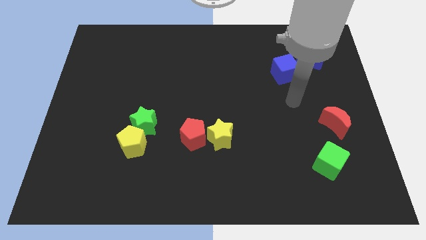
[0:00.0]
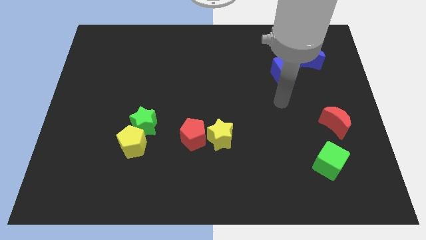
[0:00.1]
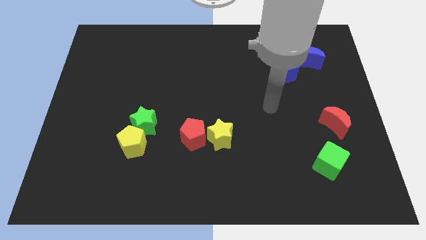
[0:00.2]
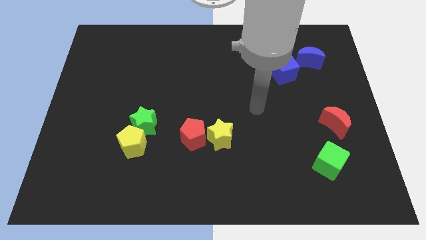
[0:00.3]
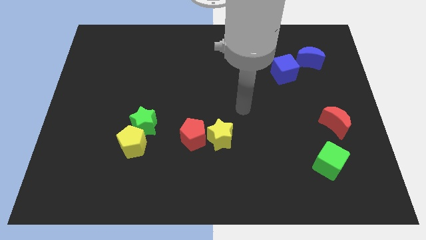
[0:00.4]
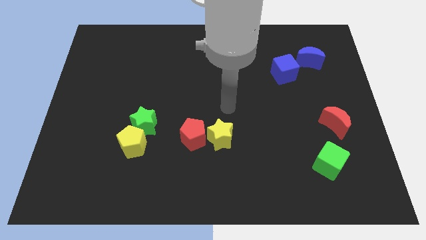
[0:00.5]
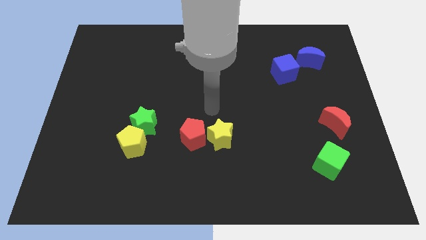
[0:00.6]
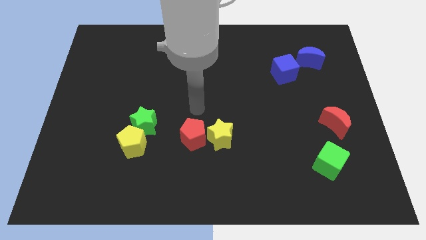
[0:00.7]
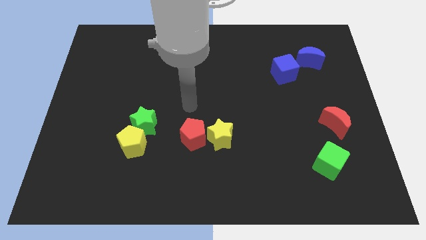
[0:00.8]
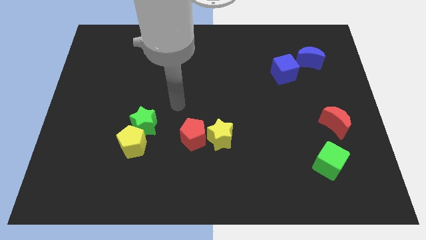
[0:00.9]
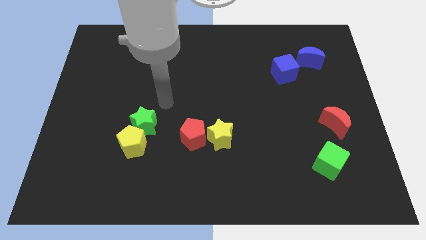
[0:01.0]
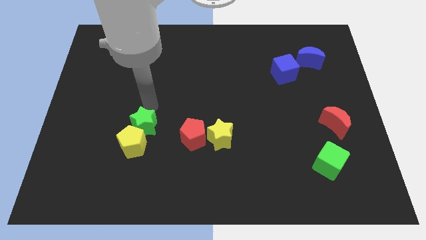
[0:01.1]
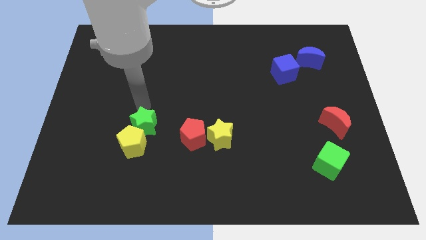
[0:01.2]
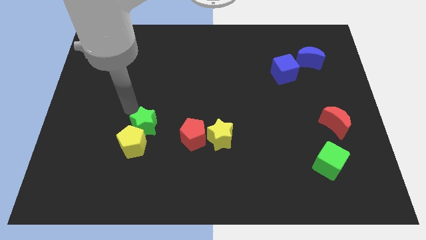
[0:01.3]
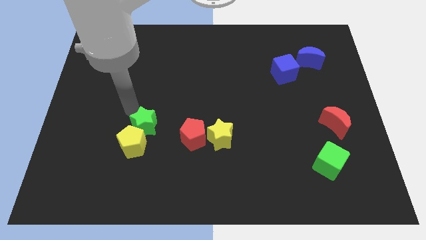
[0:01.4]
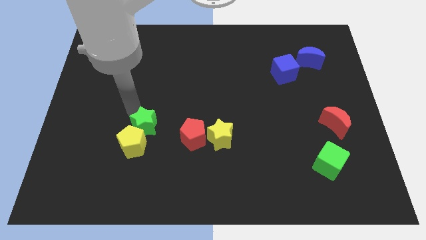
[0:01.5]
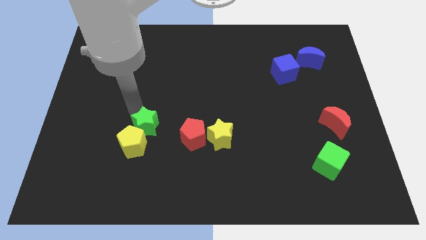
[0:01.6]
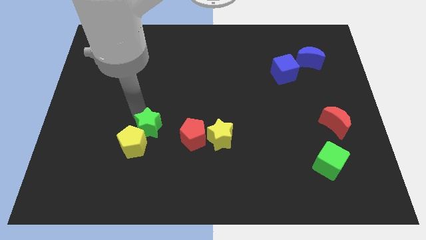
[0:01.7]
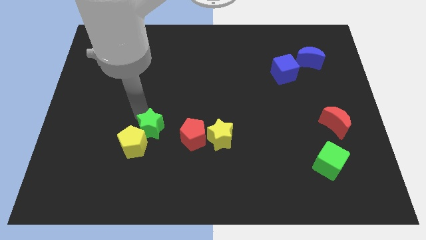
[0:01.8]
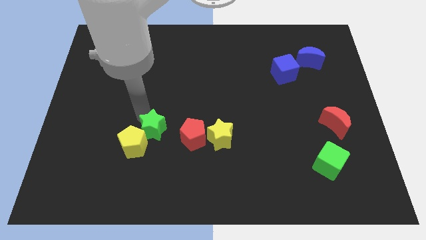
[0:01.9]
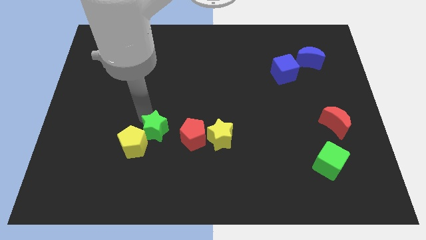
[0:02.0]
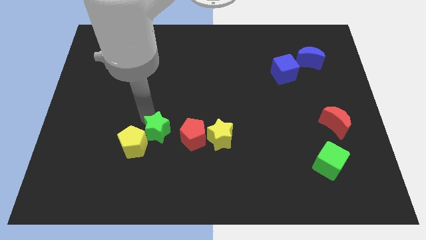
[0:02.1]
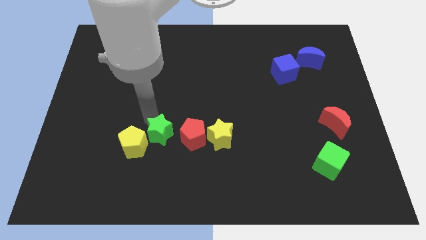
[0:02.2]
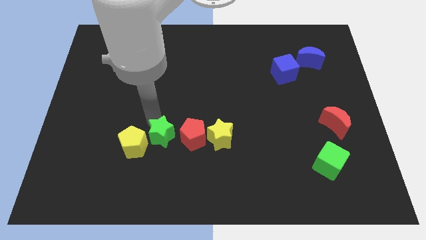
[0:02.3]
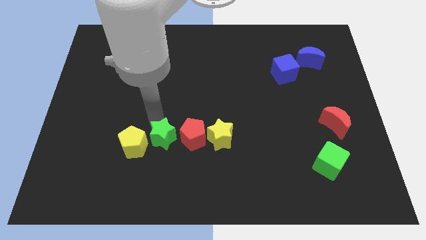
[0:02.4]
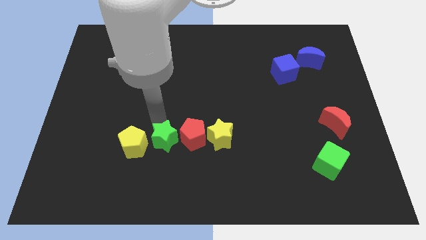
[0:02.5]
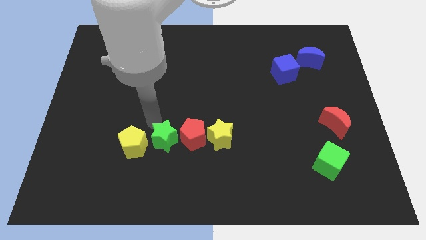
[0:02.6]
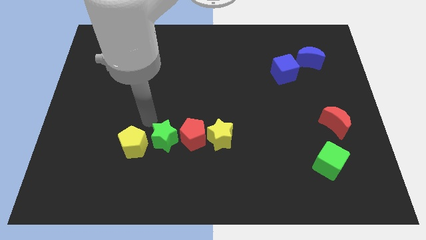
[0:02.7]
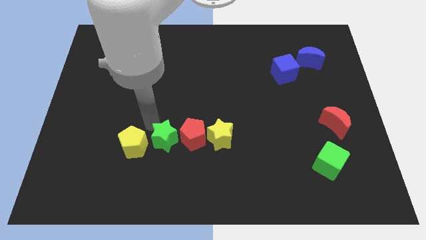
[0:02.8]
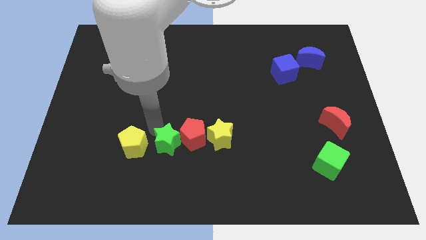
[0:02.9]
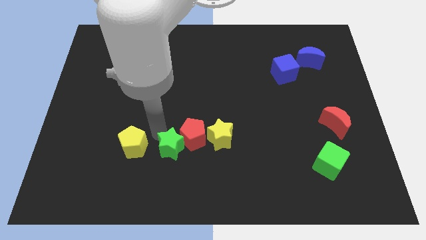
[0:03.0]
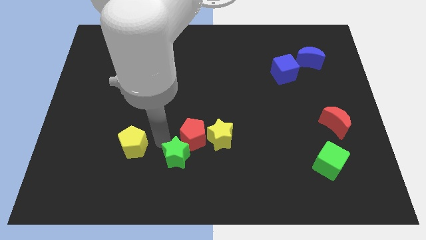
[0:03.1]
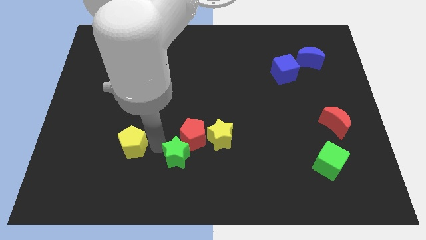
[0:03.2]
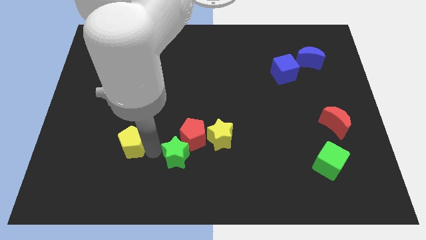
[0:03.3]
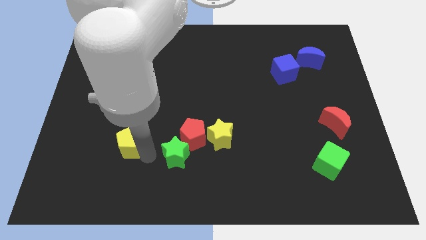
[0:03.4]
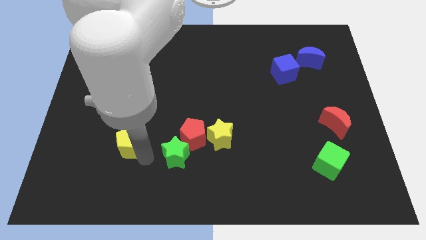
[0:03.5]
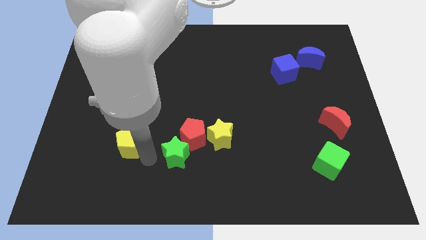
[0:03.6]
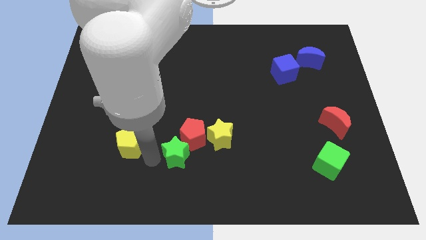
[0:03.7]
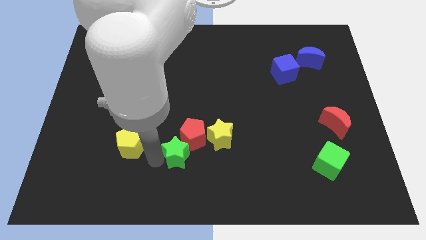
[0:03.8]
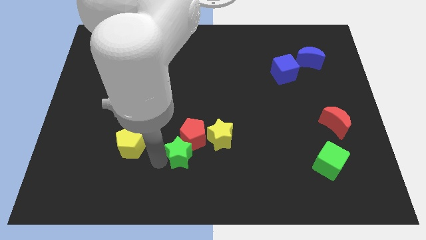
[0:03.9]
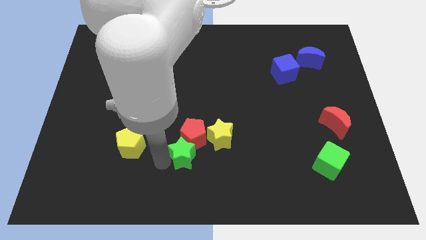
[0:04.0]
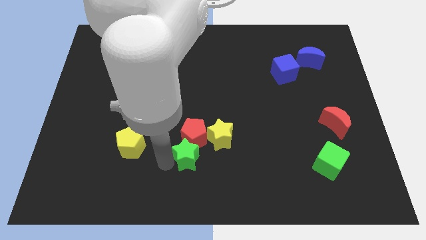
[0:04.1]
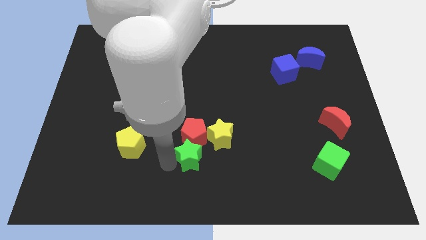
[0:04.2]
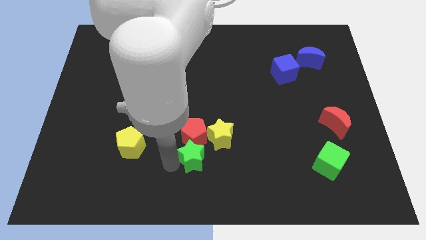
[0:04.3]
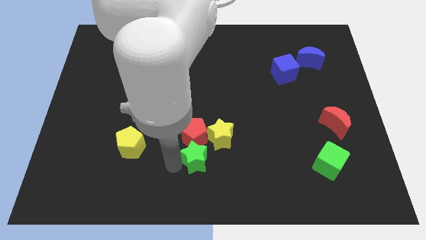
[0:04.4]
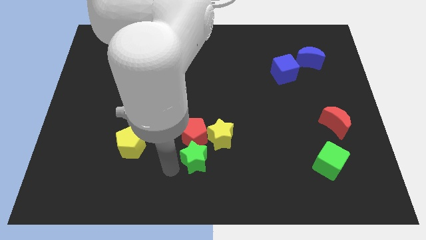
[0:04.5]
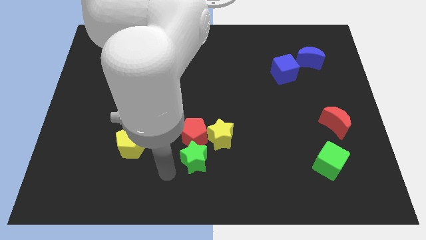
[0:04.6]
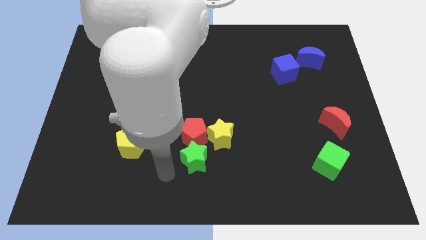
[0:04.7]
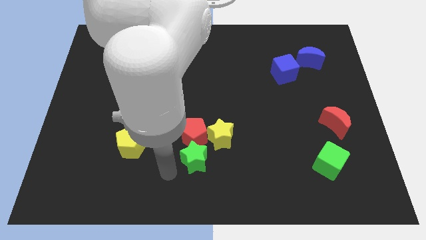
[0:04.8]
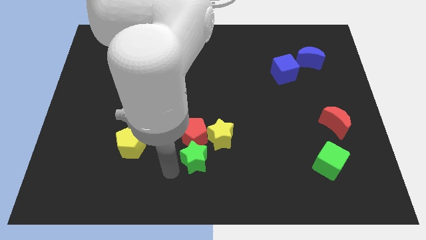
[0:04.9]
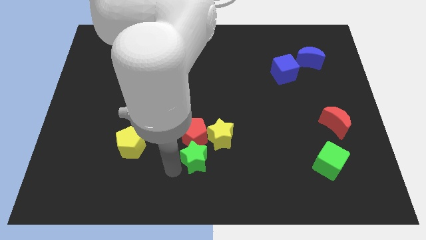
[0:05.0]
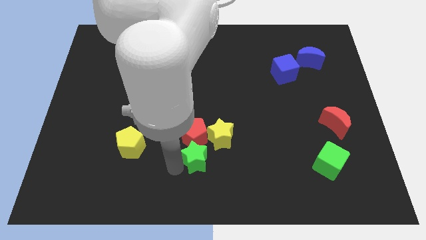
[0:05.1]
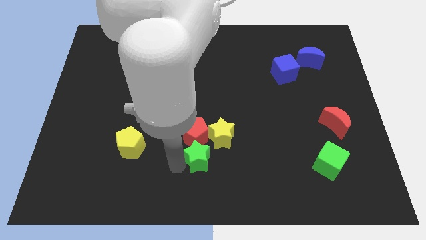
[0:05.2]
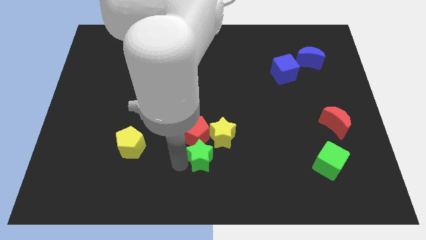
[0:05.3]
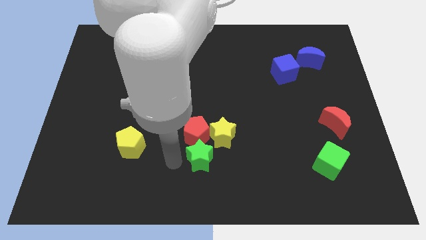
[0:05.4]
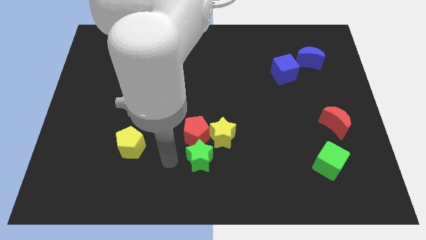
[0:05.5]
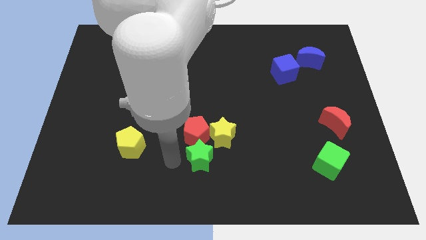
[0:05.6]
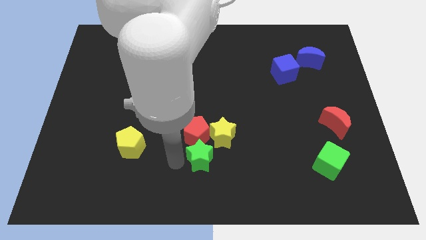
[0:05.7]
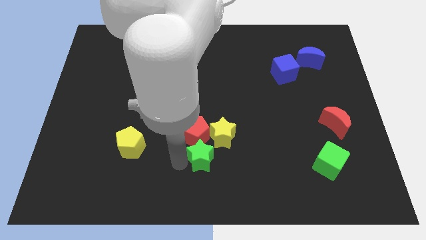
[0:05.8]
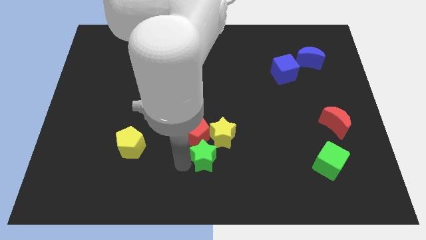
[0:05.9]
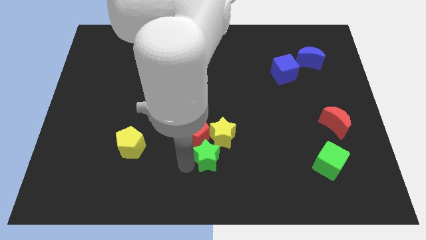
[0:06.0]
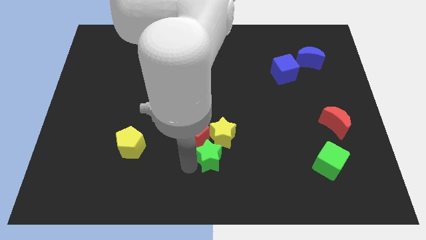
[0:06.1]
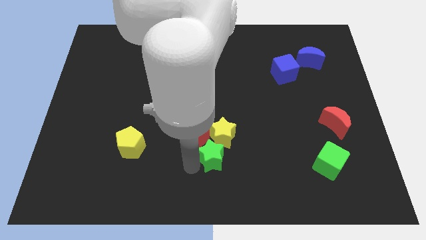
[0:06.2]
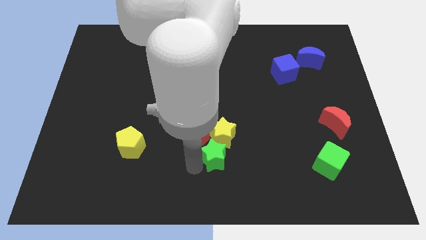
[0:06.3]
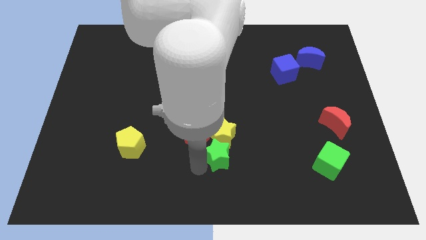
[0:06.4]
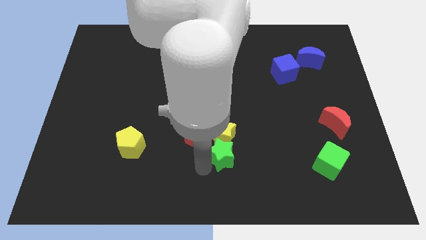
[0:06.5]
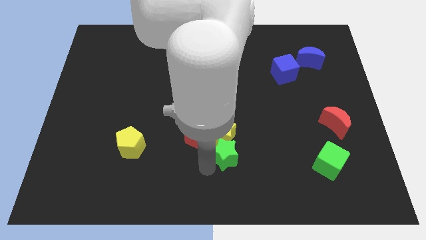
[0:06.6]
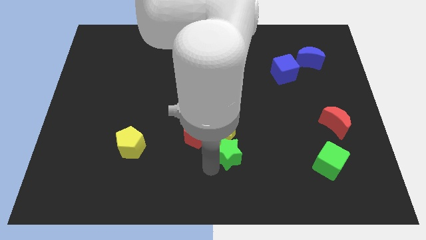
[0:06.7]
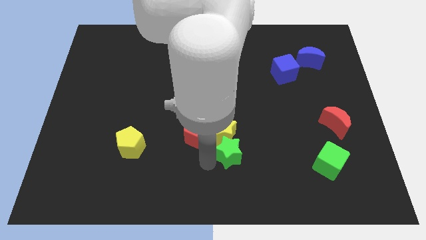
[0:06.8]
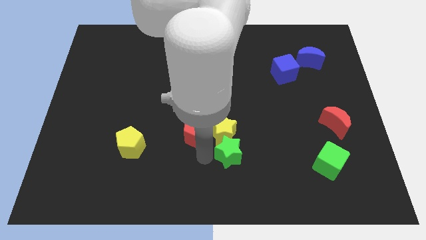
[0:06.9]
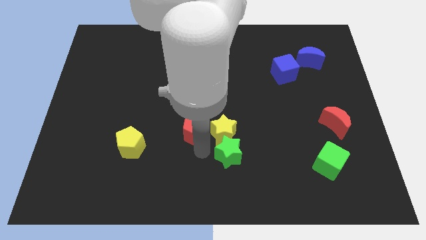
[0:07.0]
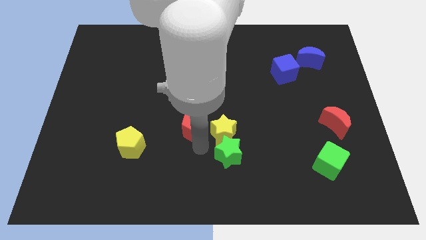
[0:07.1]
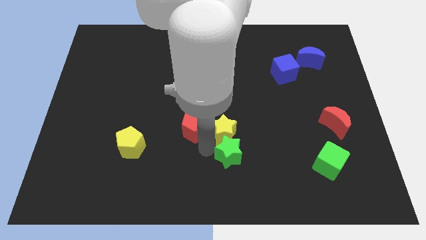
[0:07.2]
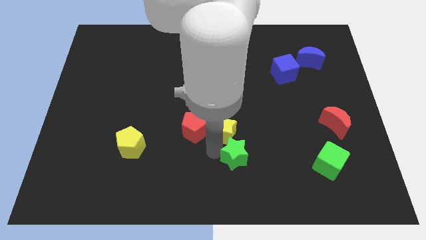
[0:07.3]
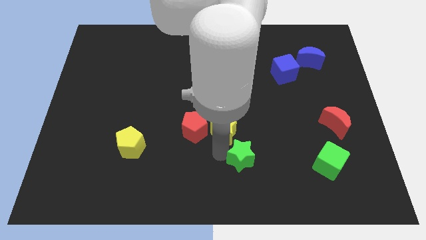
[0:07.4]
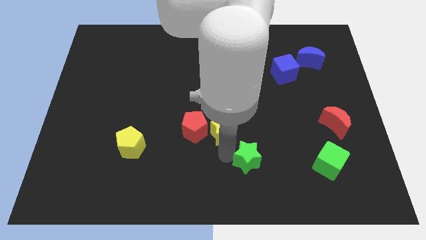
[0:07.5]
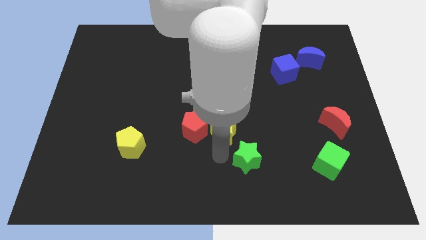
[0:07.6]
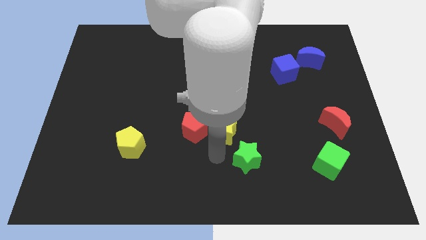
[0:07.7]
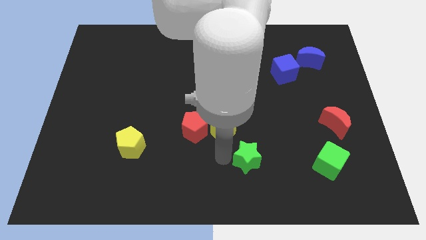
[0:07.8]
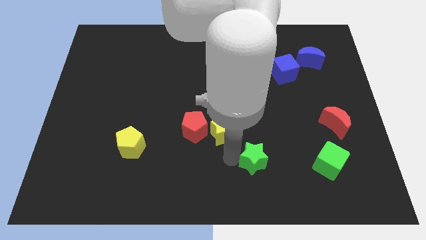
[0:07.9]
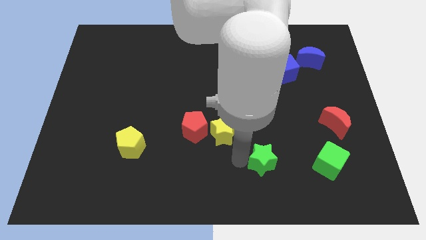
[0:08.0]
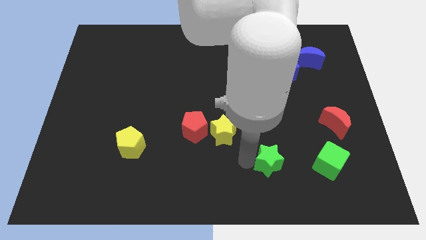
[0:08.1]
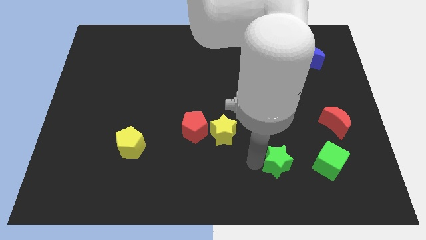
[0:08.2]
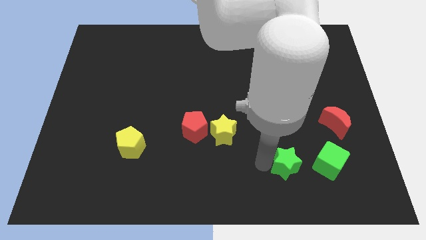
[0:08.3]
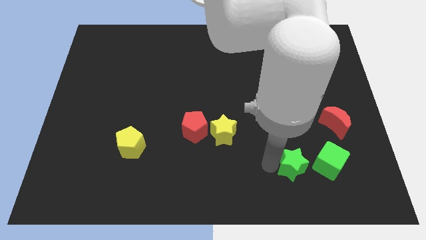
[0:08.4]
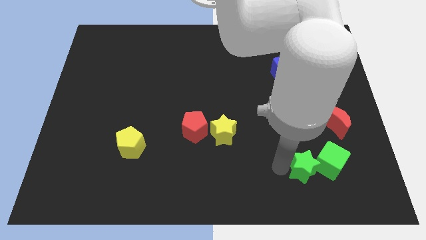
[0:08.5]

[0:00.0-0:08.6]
move the green star to the green cube
